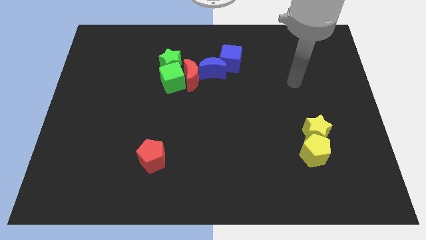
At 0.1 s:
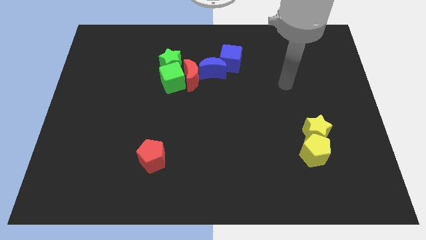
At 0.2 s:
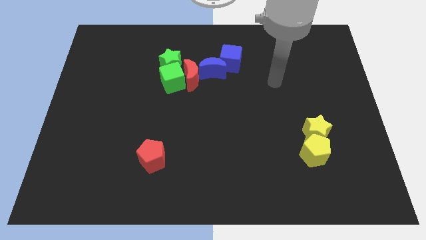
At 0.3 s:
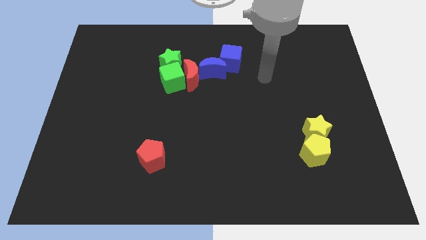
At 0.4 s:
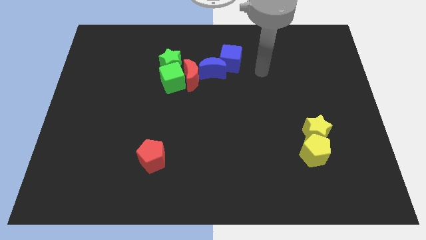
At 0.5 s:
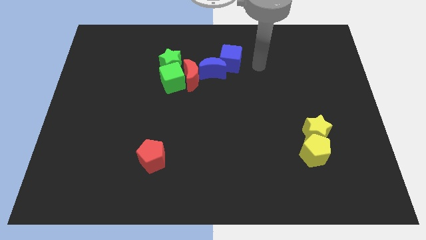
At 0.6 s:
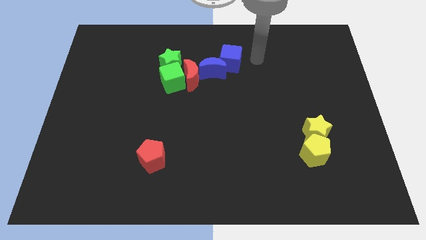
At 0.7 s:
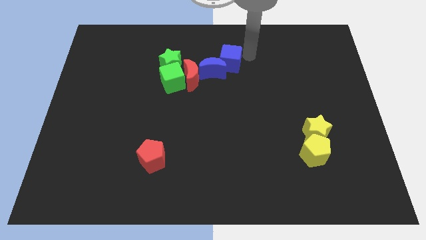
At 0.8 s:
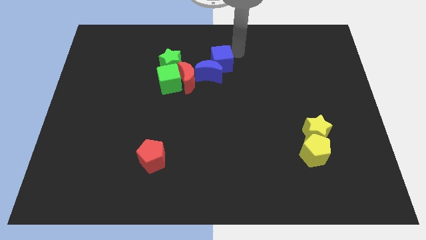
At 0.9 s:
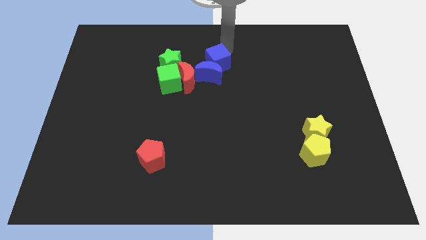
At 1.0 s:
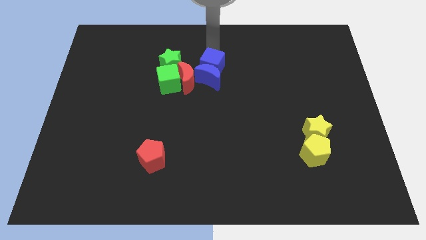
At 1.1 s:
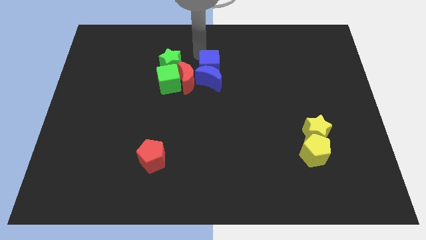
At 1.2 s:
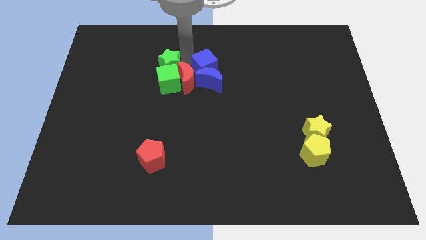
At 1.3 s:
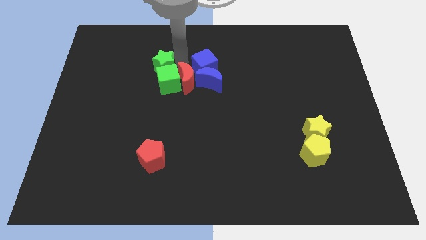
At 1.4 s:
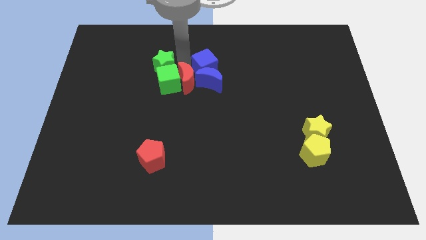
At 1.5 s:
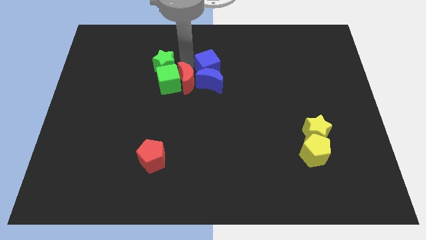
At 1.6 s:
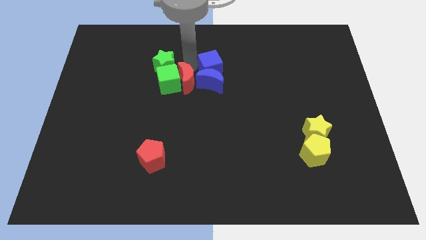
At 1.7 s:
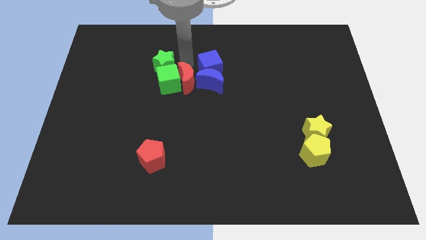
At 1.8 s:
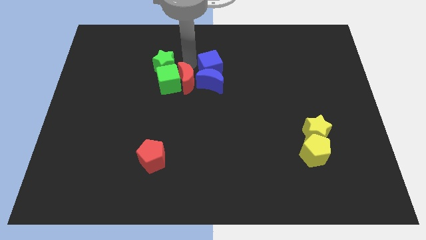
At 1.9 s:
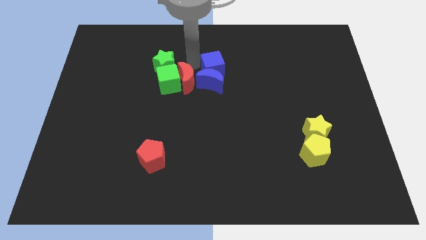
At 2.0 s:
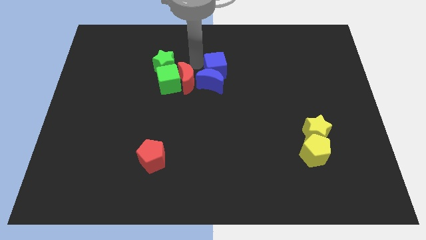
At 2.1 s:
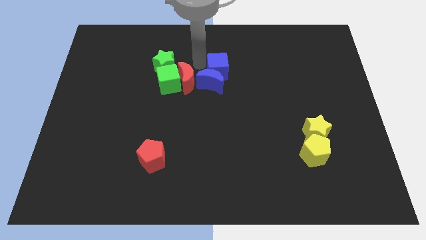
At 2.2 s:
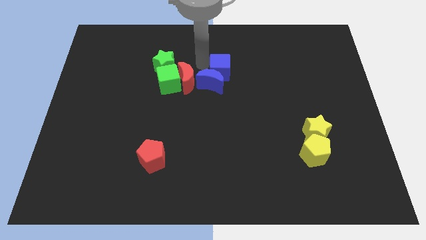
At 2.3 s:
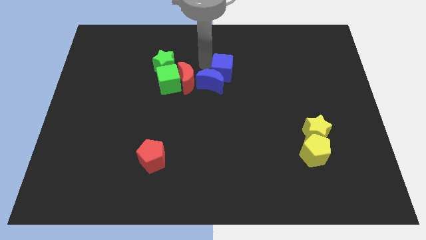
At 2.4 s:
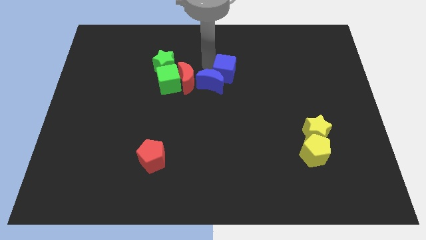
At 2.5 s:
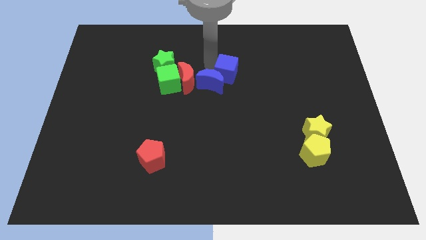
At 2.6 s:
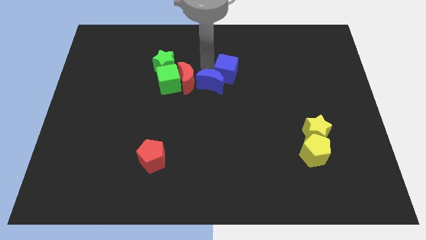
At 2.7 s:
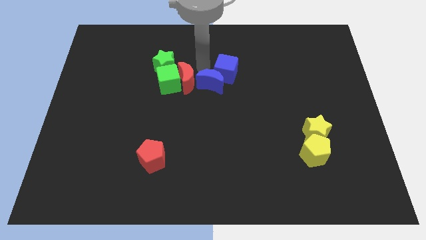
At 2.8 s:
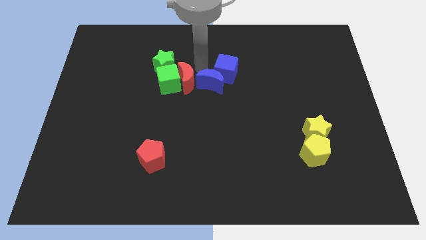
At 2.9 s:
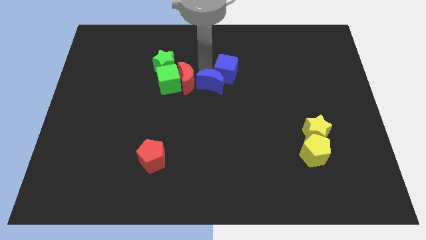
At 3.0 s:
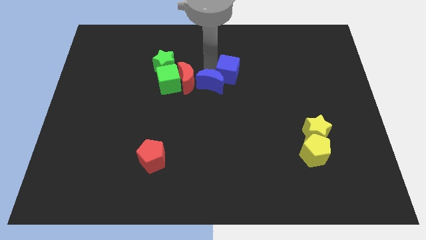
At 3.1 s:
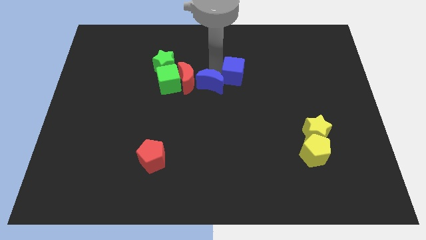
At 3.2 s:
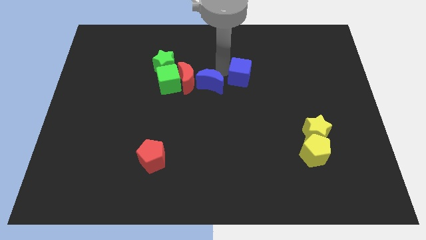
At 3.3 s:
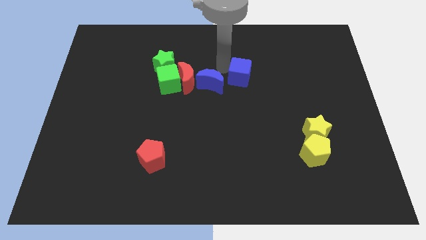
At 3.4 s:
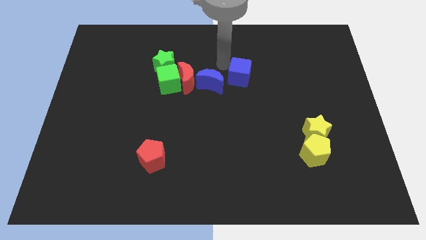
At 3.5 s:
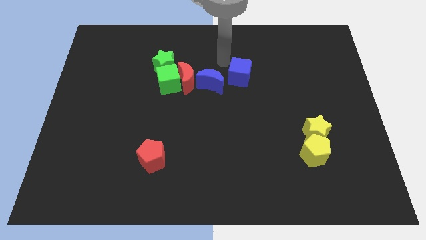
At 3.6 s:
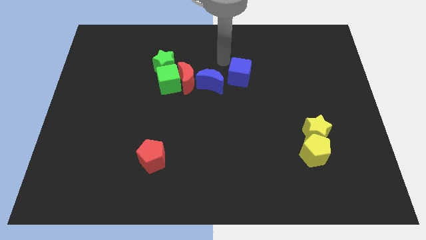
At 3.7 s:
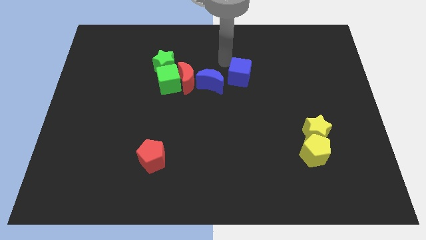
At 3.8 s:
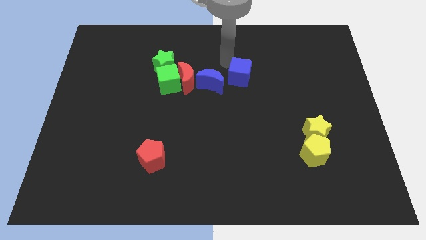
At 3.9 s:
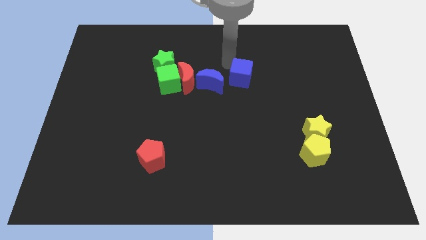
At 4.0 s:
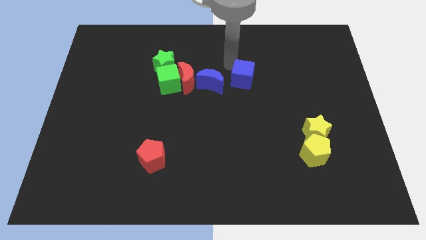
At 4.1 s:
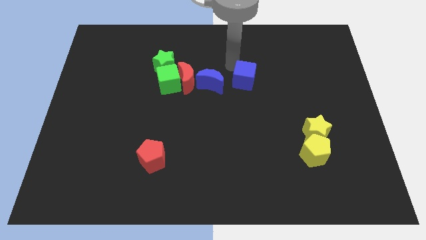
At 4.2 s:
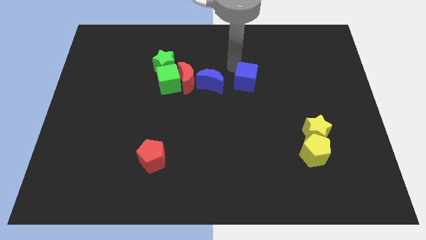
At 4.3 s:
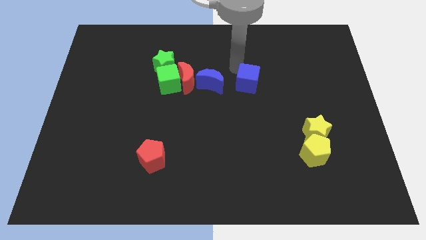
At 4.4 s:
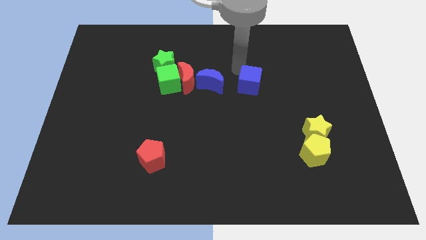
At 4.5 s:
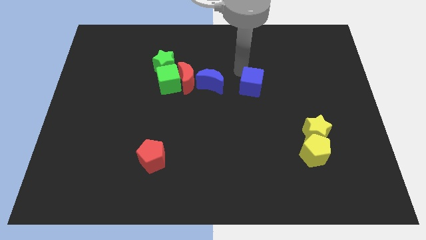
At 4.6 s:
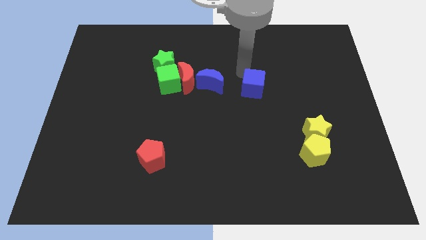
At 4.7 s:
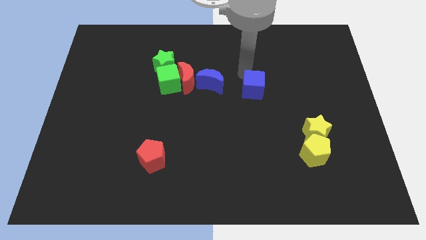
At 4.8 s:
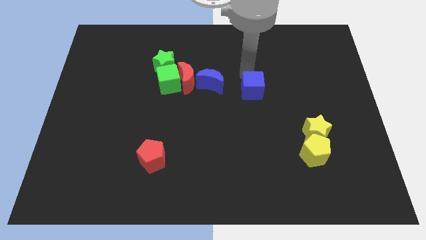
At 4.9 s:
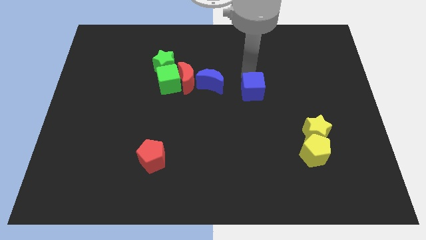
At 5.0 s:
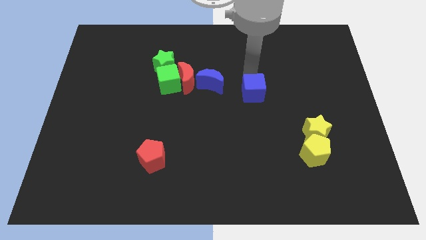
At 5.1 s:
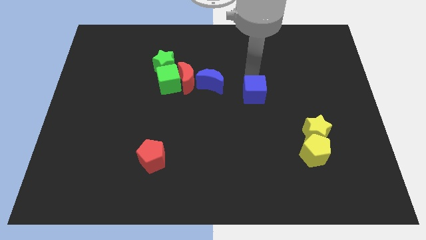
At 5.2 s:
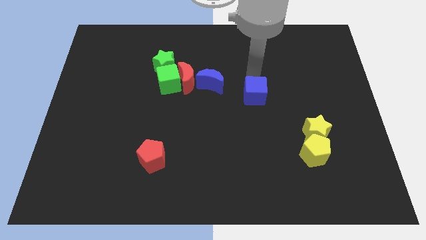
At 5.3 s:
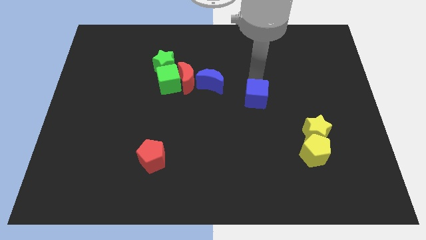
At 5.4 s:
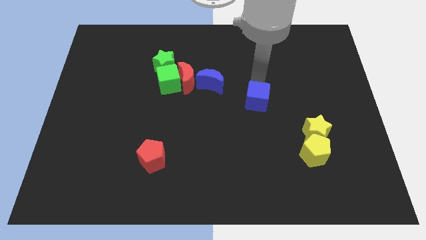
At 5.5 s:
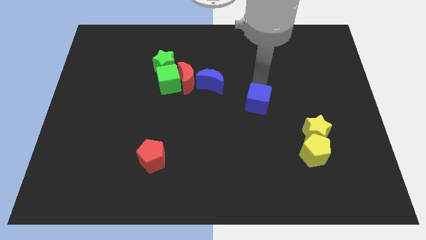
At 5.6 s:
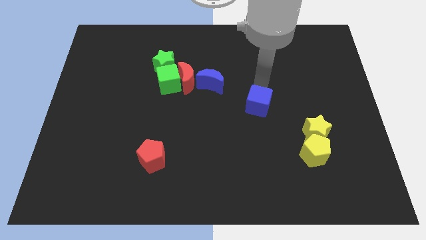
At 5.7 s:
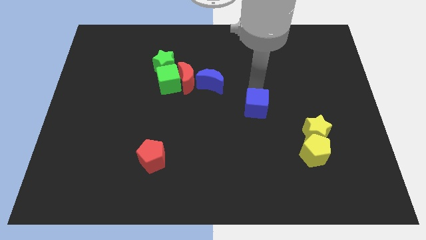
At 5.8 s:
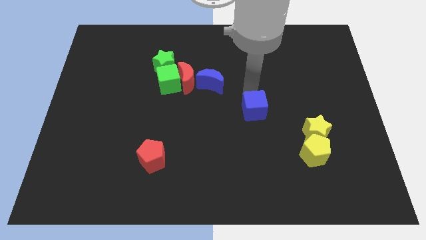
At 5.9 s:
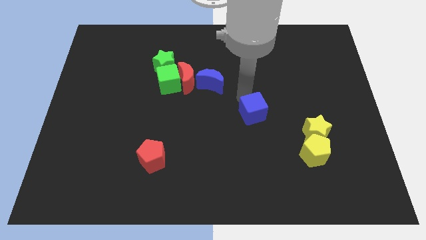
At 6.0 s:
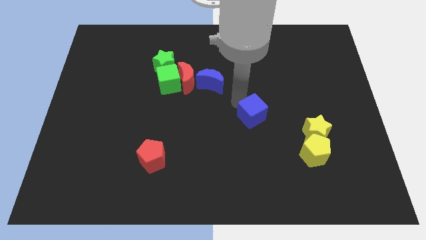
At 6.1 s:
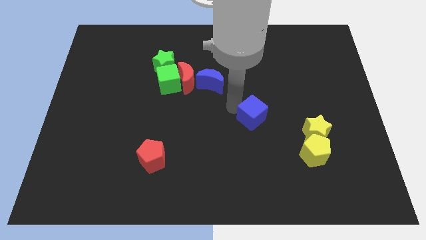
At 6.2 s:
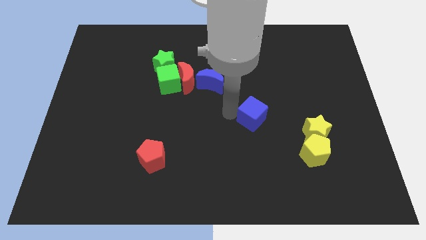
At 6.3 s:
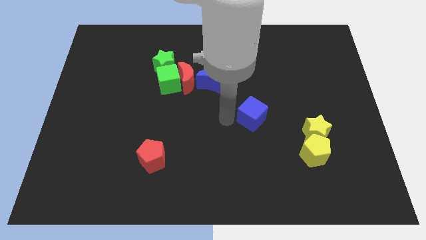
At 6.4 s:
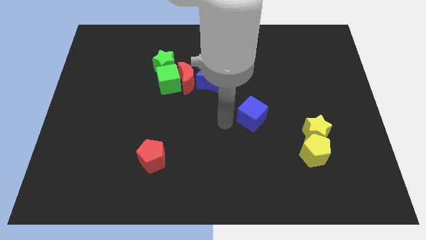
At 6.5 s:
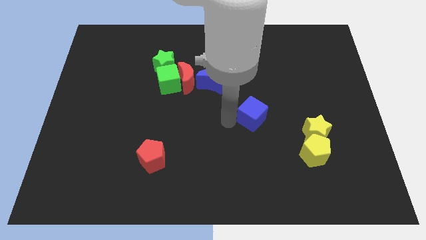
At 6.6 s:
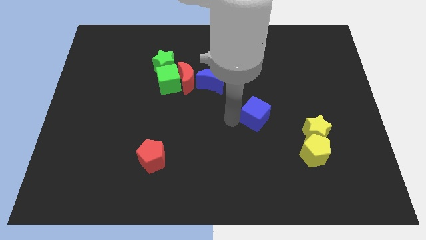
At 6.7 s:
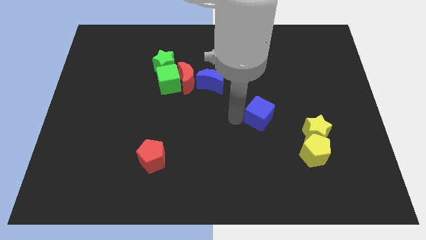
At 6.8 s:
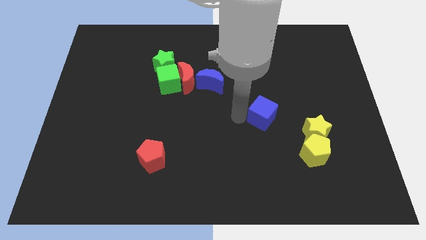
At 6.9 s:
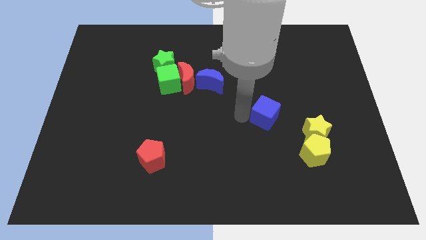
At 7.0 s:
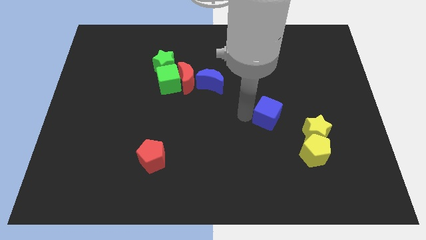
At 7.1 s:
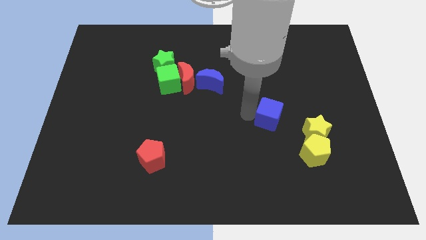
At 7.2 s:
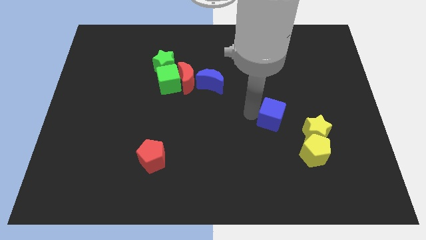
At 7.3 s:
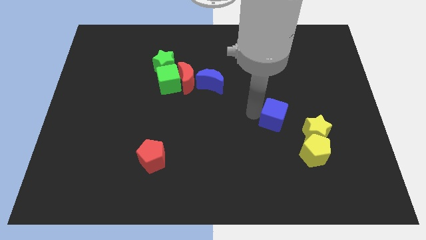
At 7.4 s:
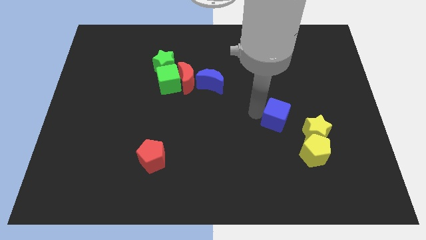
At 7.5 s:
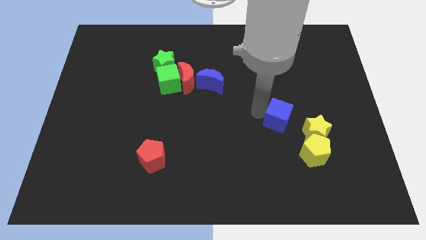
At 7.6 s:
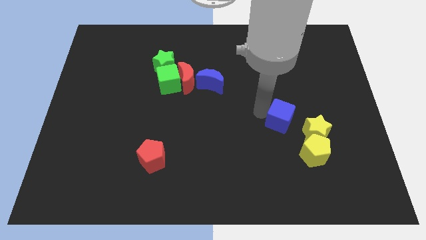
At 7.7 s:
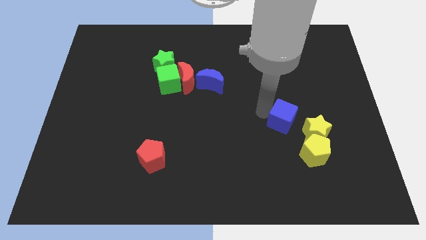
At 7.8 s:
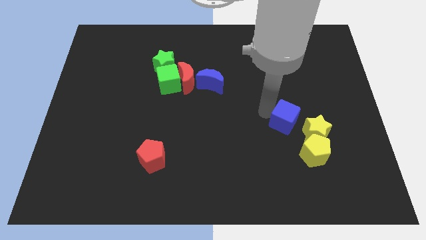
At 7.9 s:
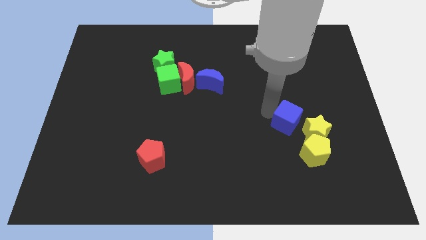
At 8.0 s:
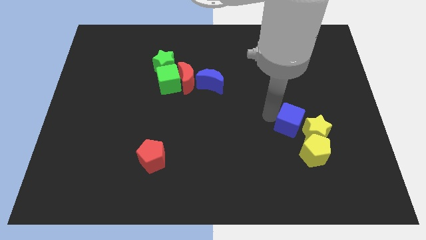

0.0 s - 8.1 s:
move the blue cube next to the yellow star
